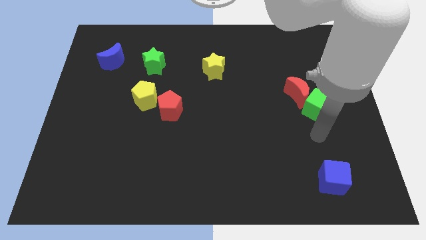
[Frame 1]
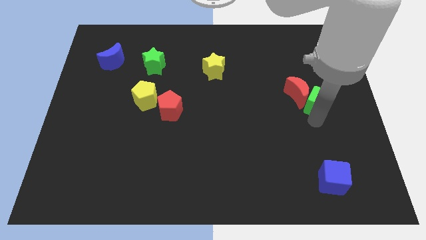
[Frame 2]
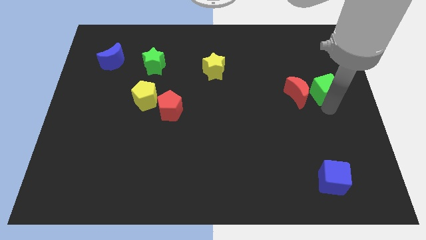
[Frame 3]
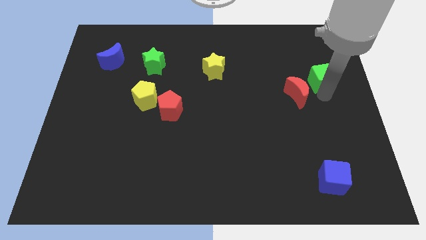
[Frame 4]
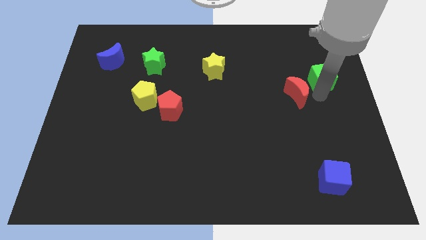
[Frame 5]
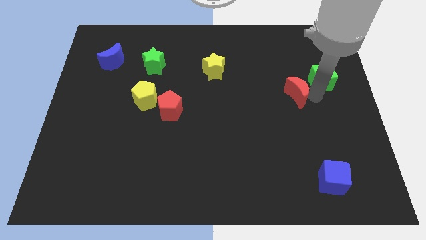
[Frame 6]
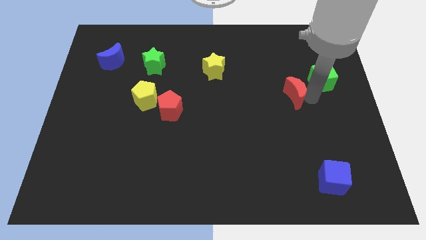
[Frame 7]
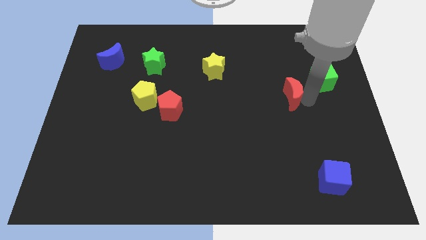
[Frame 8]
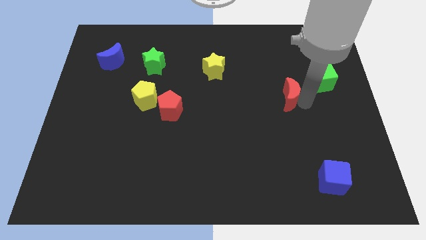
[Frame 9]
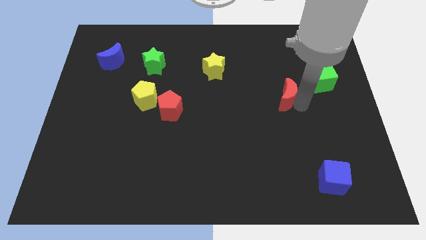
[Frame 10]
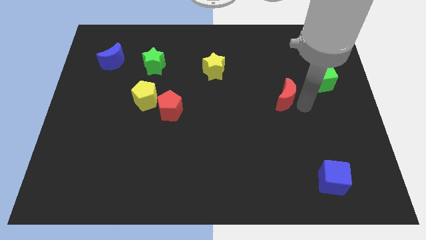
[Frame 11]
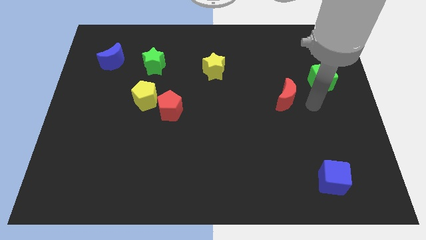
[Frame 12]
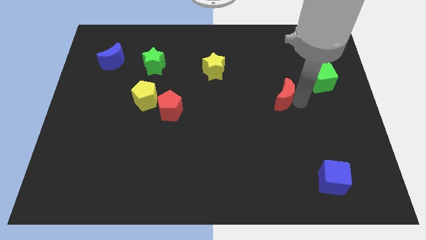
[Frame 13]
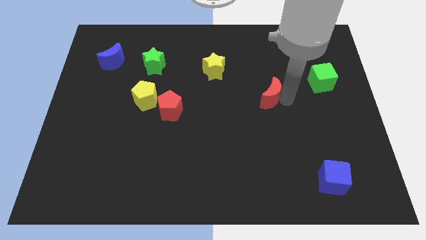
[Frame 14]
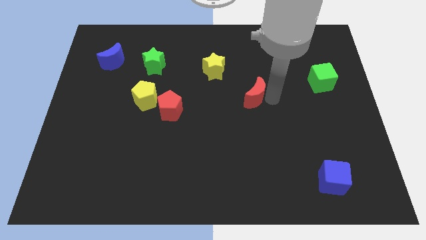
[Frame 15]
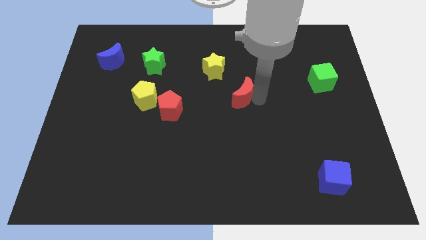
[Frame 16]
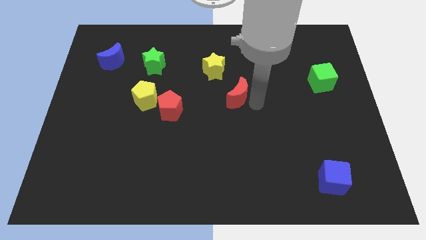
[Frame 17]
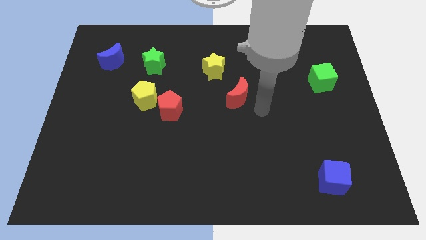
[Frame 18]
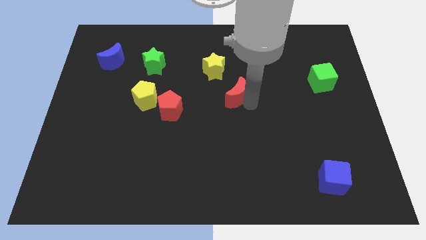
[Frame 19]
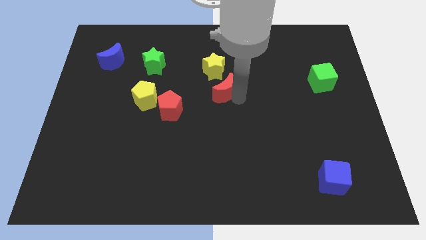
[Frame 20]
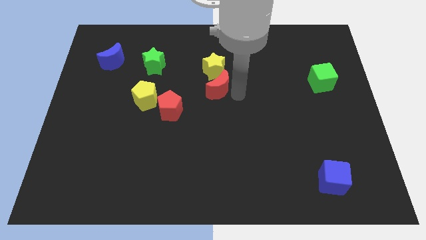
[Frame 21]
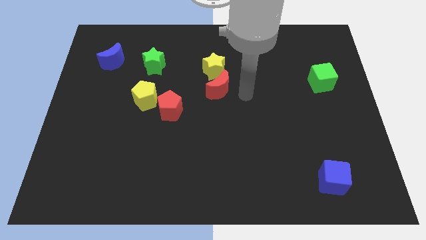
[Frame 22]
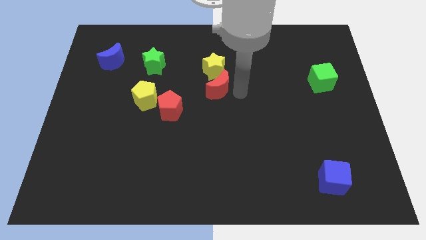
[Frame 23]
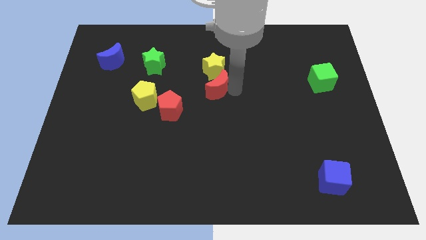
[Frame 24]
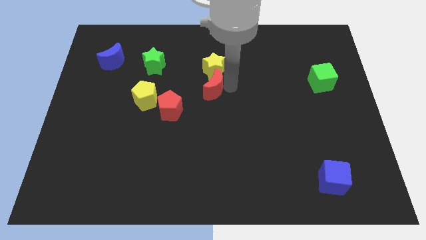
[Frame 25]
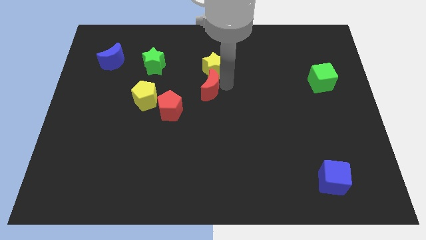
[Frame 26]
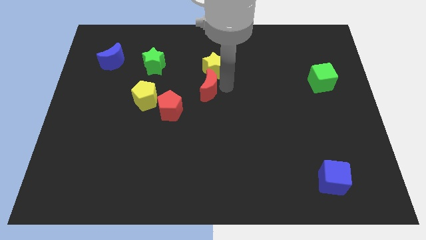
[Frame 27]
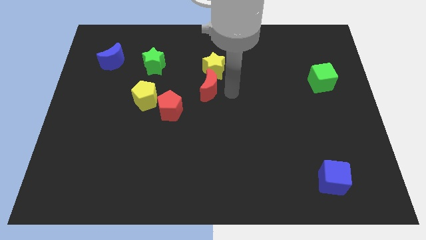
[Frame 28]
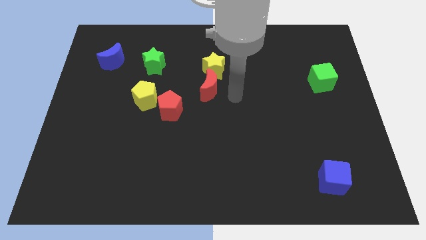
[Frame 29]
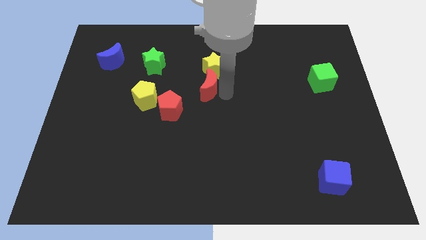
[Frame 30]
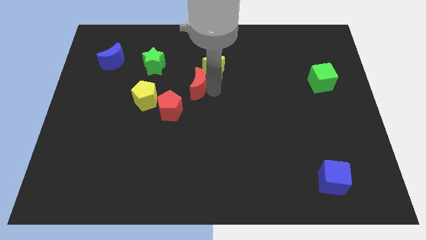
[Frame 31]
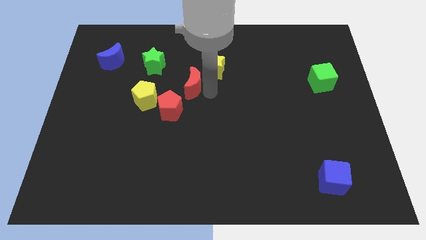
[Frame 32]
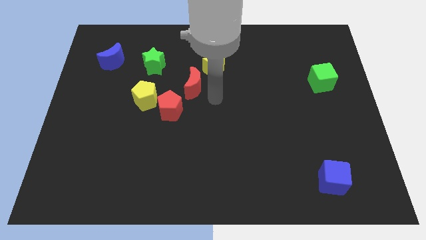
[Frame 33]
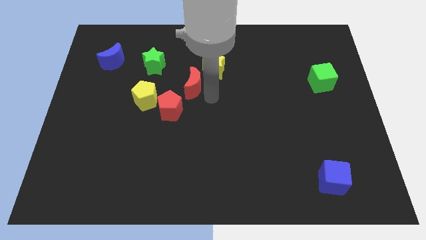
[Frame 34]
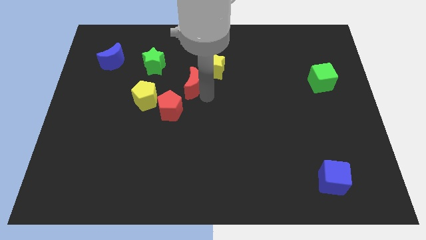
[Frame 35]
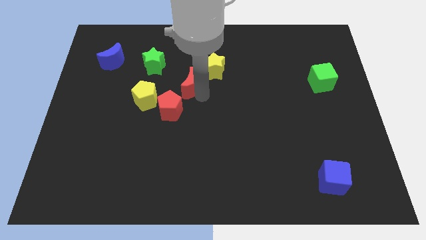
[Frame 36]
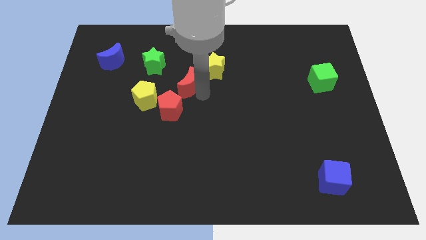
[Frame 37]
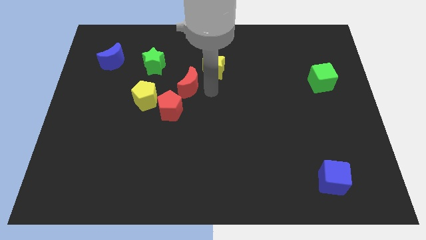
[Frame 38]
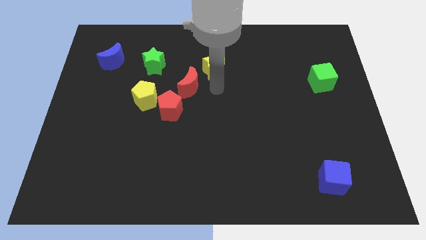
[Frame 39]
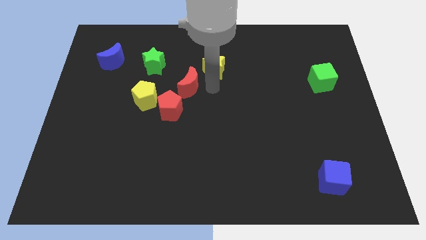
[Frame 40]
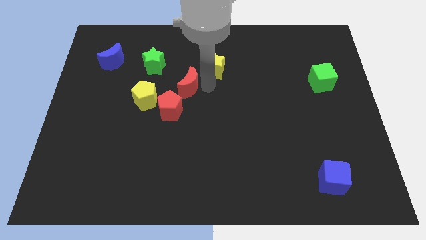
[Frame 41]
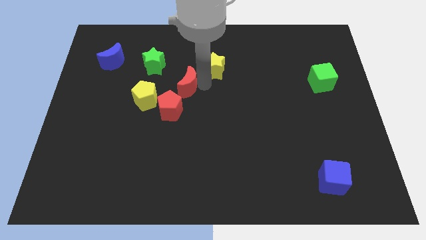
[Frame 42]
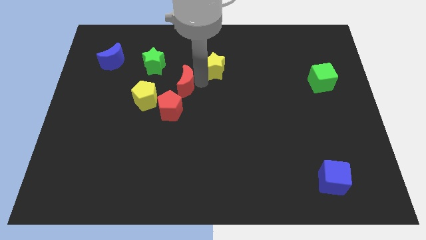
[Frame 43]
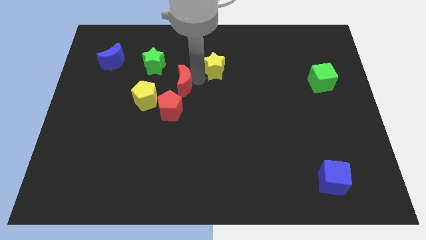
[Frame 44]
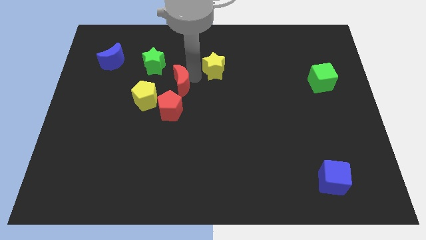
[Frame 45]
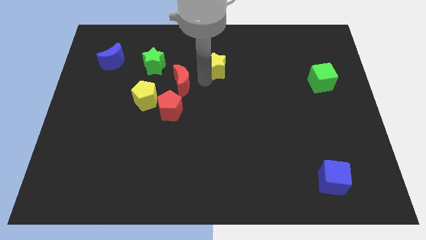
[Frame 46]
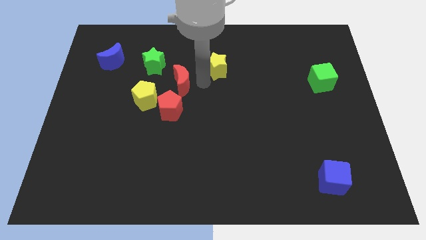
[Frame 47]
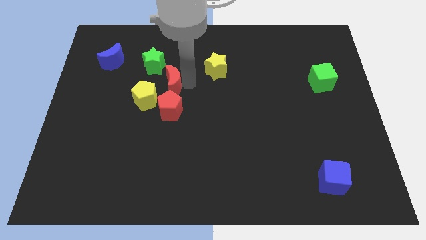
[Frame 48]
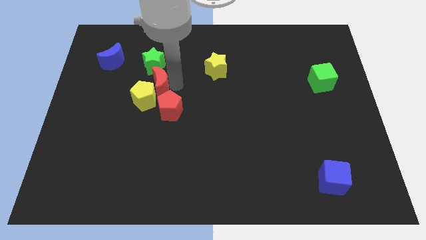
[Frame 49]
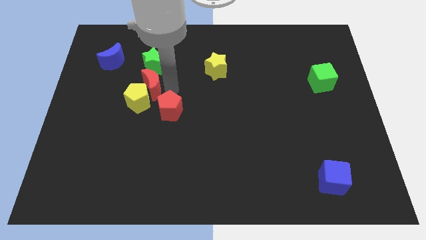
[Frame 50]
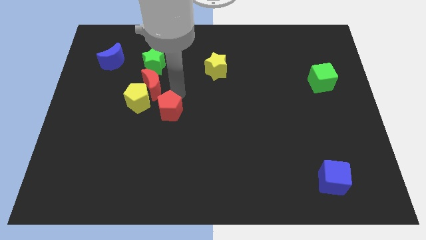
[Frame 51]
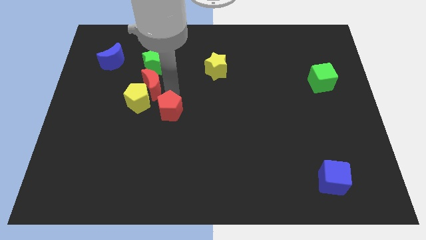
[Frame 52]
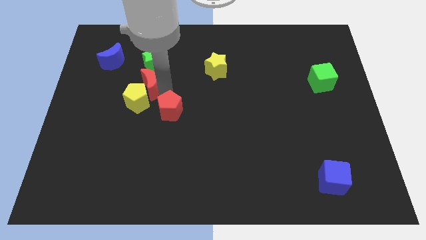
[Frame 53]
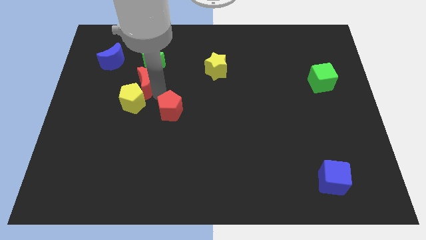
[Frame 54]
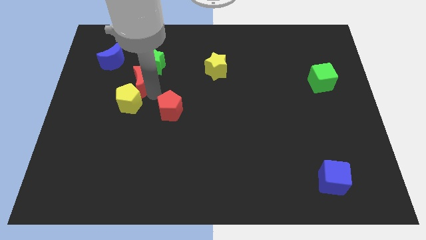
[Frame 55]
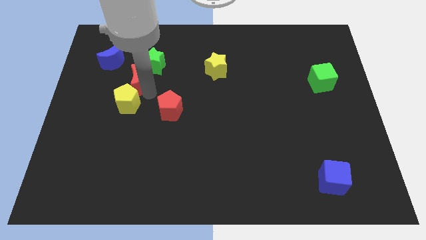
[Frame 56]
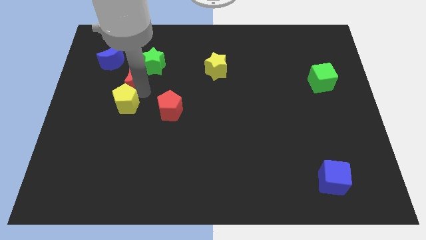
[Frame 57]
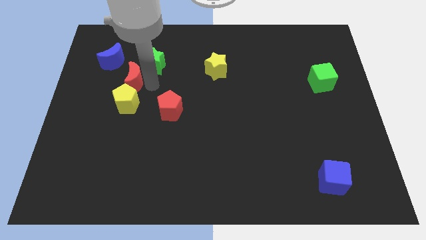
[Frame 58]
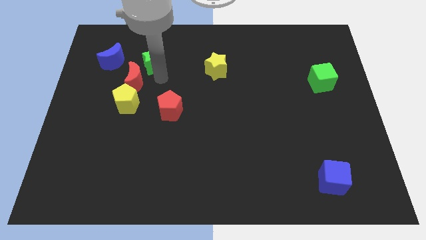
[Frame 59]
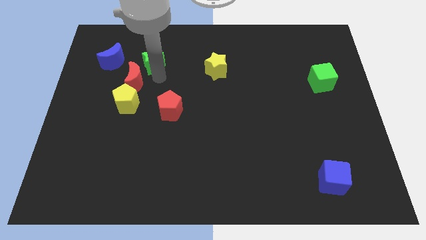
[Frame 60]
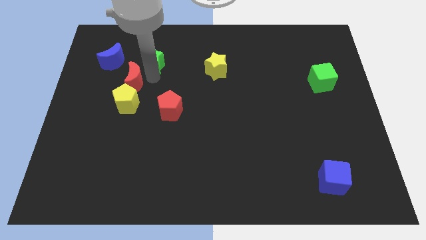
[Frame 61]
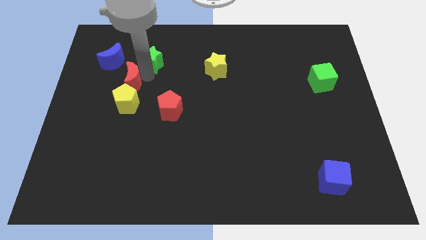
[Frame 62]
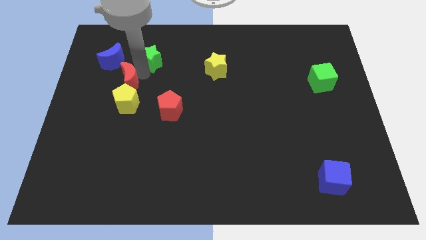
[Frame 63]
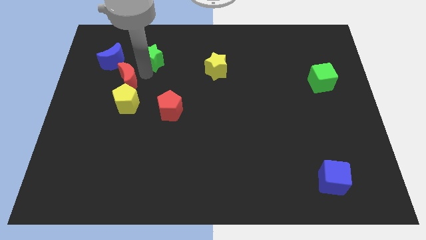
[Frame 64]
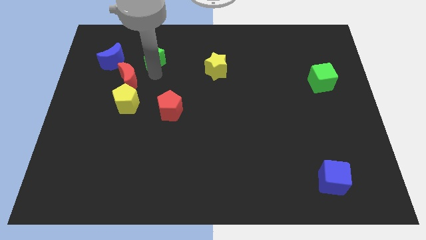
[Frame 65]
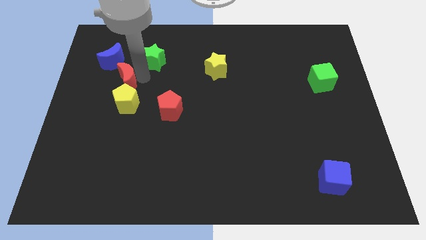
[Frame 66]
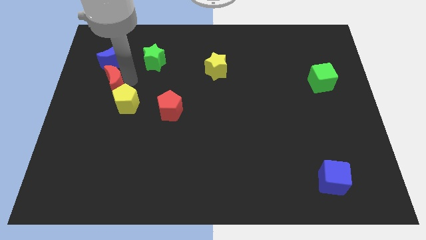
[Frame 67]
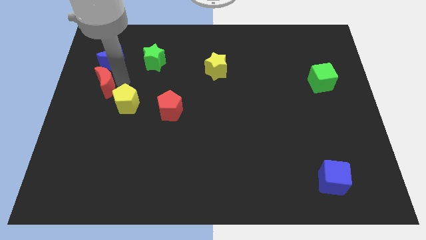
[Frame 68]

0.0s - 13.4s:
put the red moon to the left side of the board
